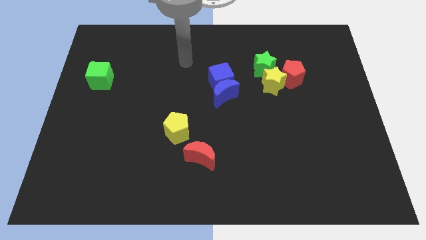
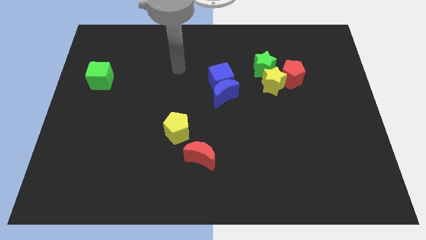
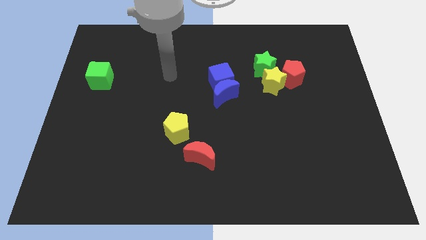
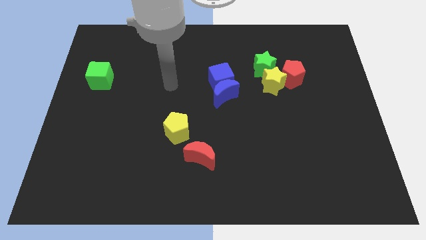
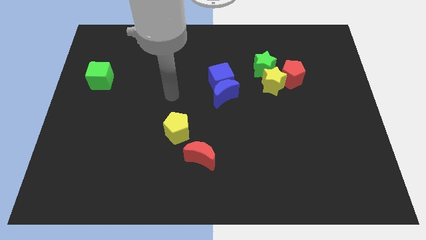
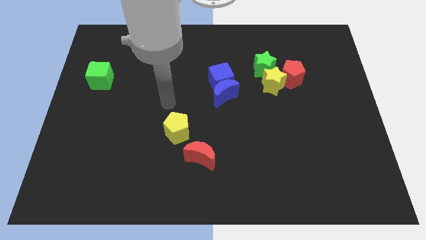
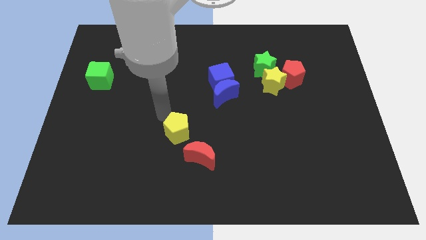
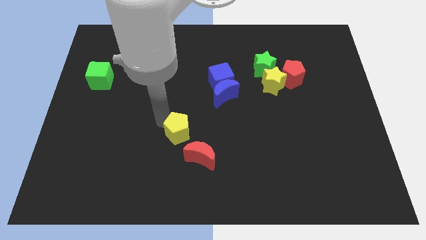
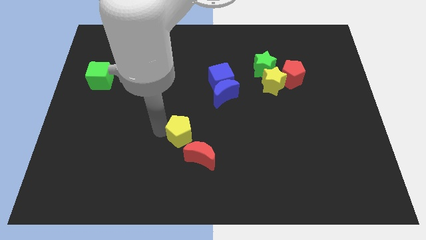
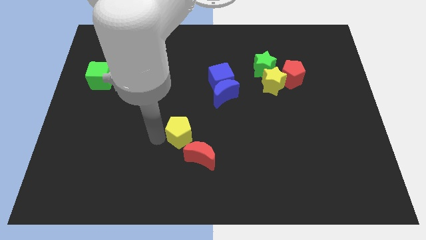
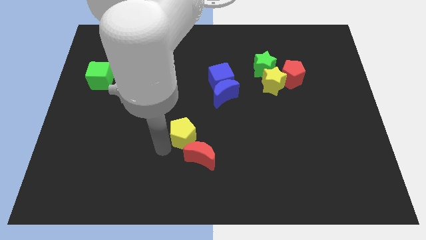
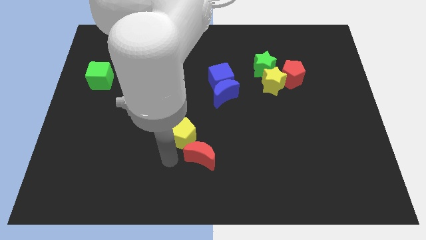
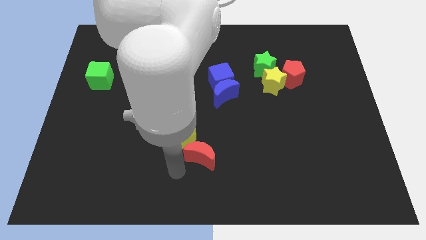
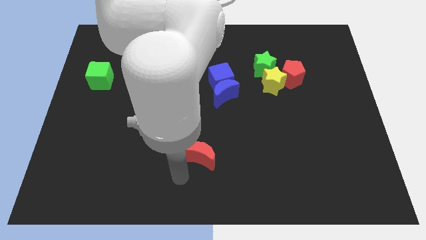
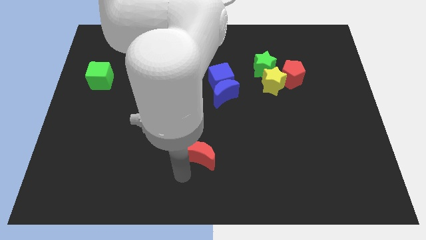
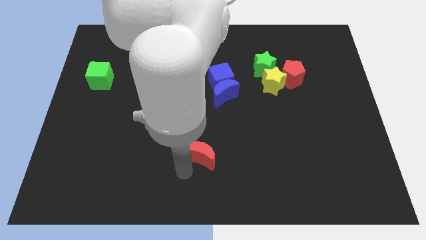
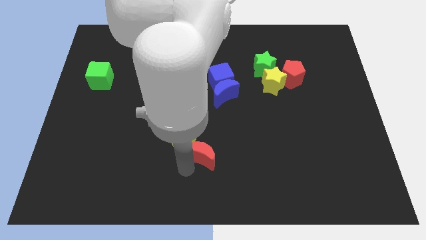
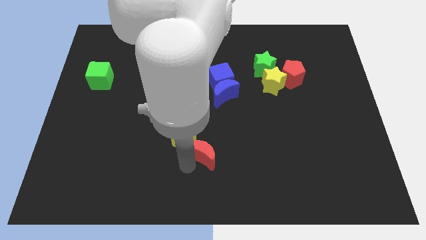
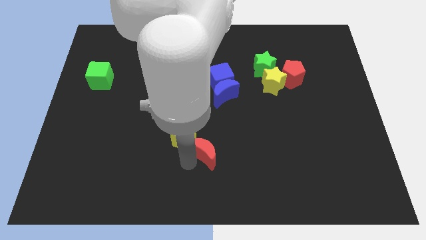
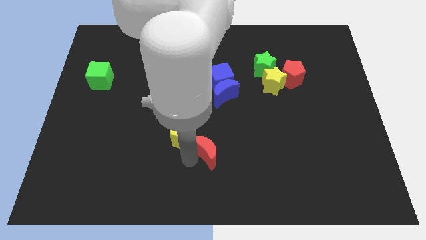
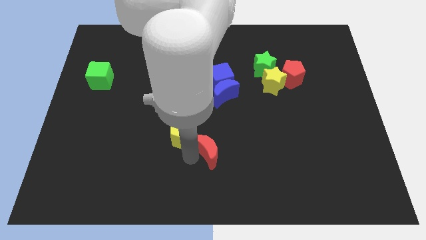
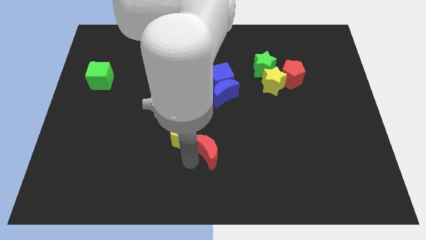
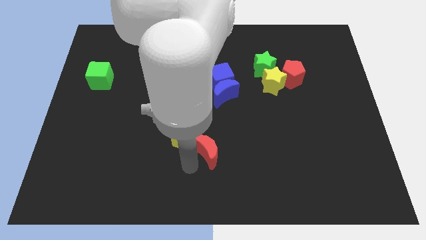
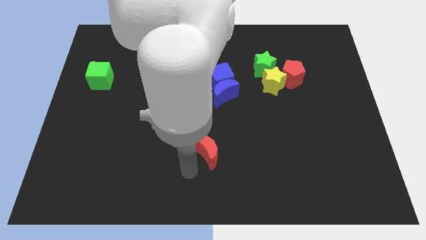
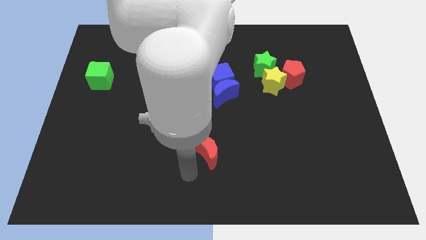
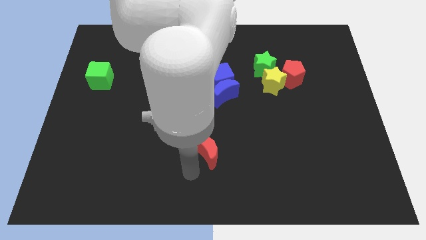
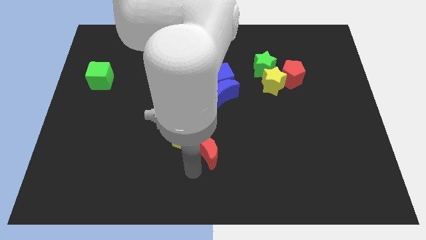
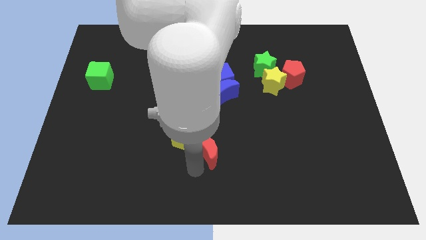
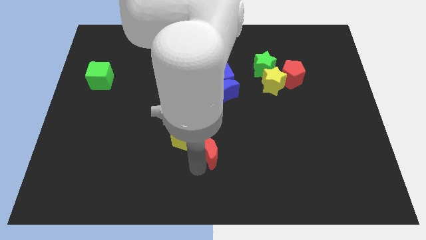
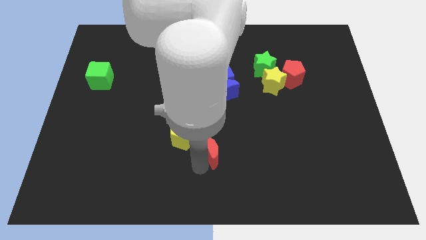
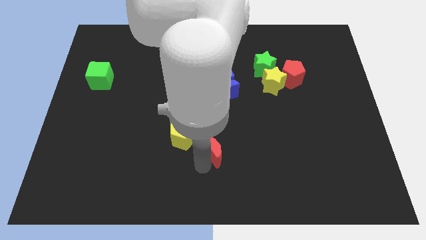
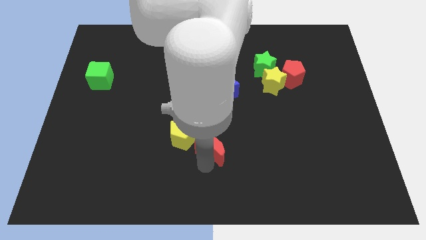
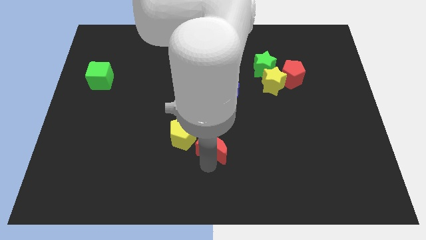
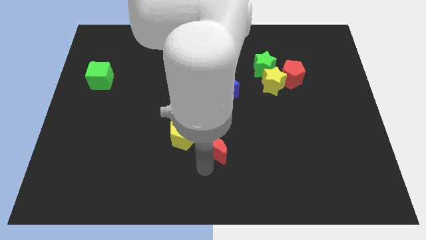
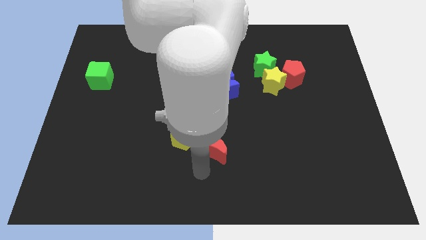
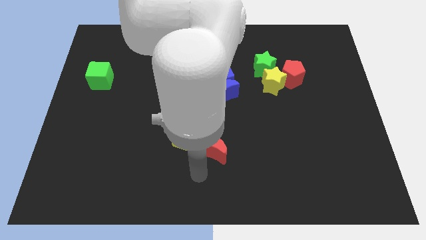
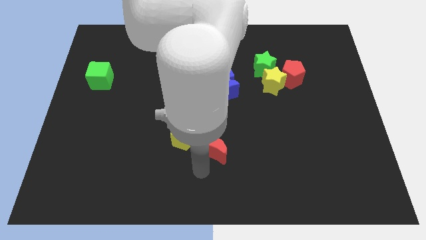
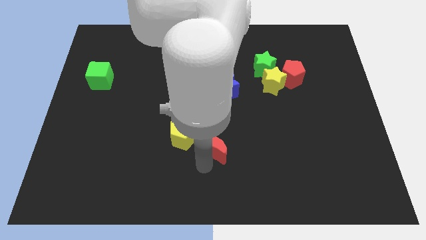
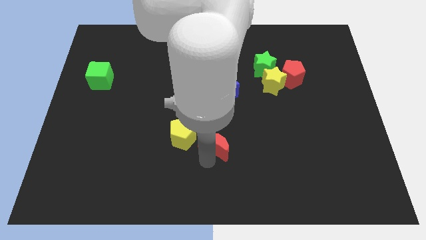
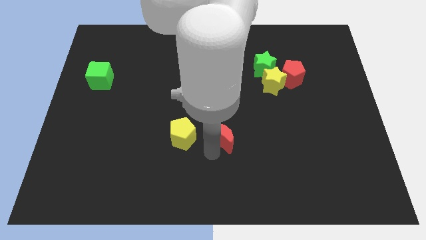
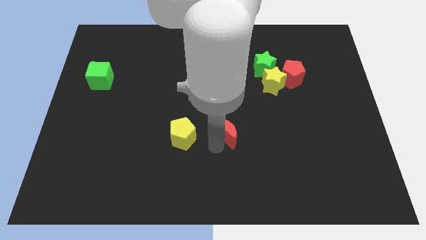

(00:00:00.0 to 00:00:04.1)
slightly slide the red moon up and to the right

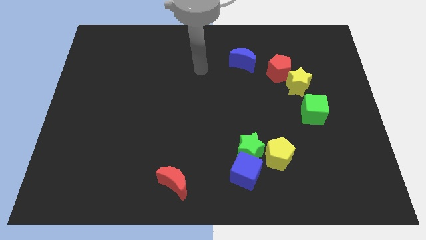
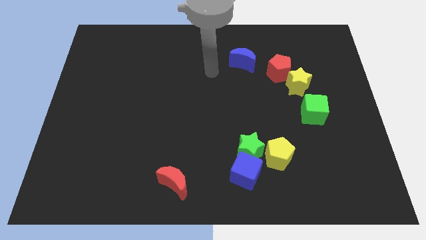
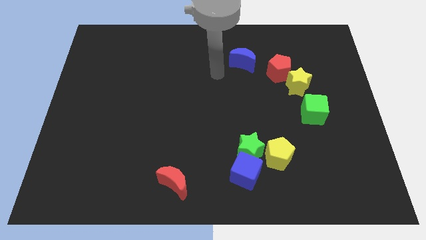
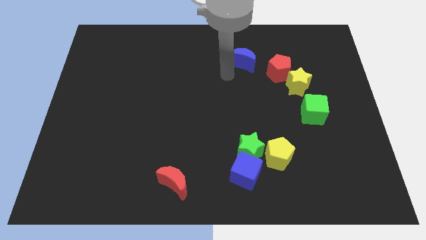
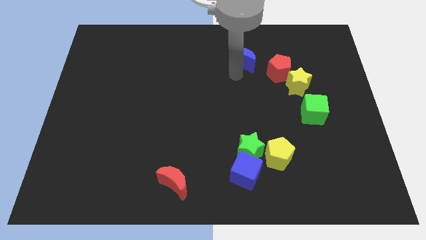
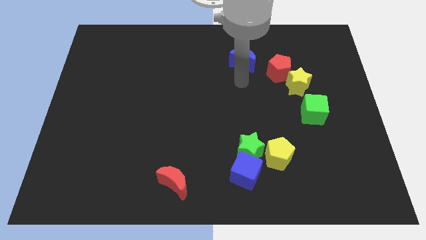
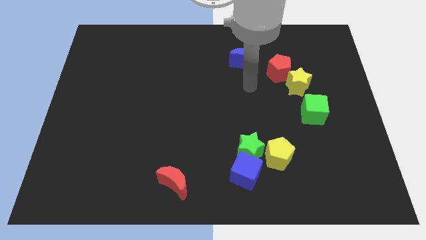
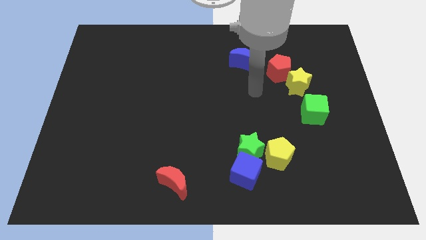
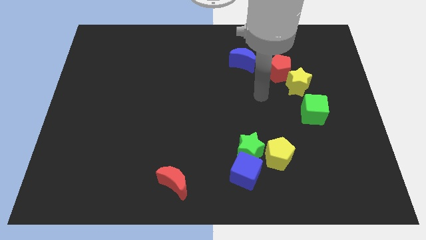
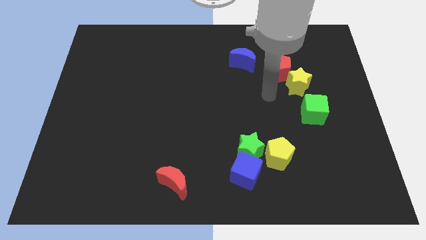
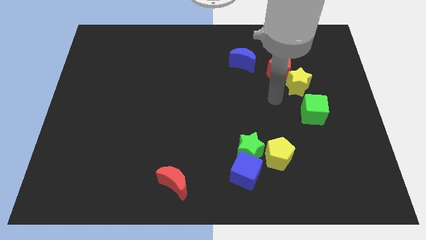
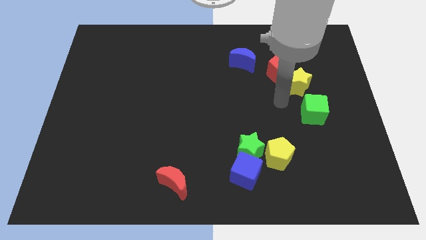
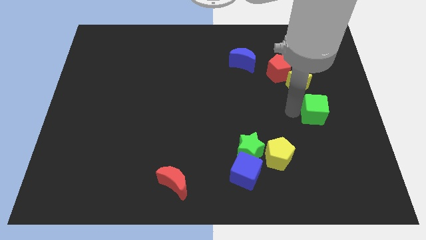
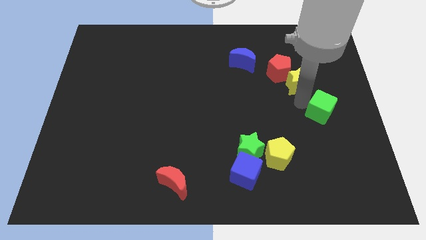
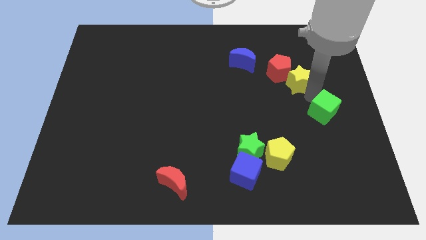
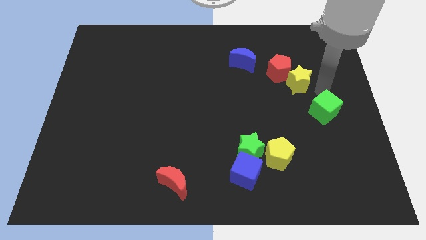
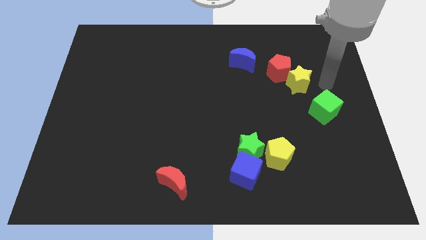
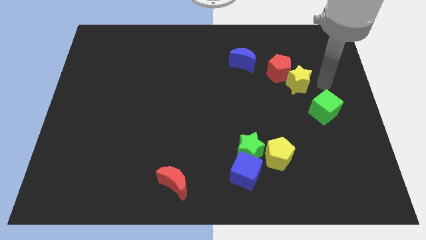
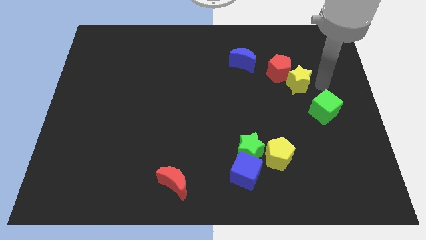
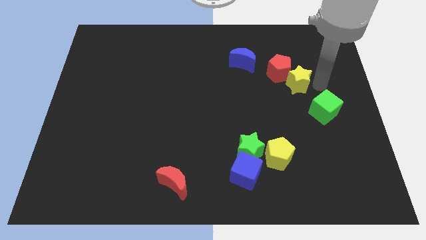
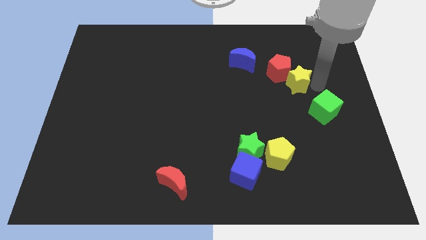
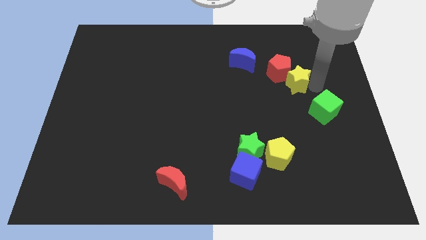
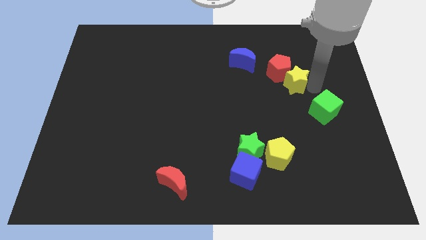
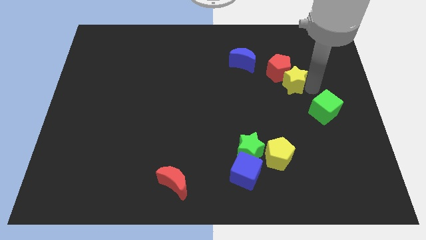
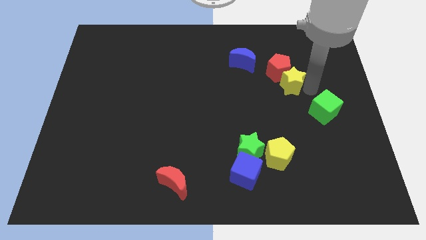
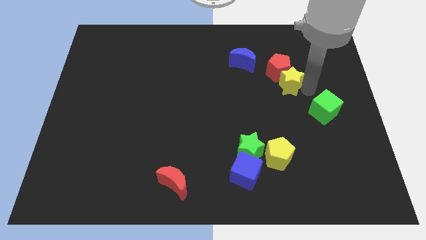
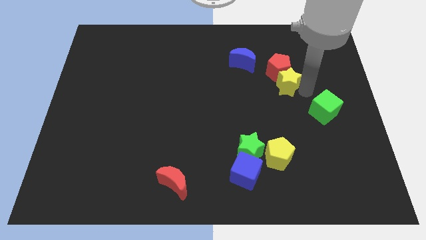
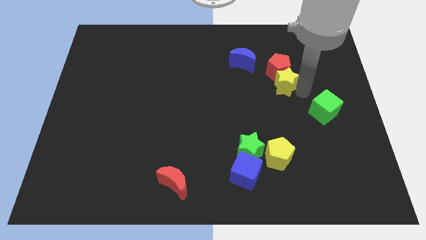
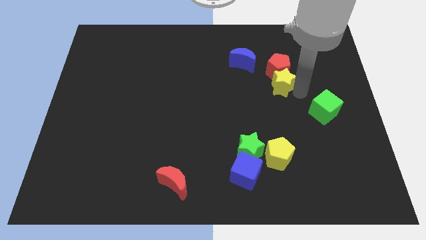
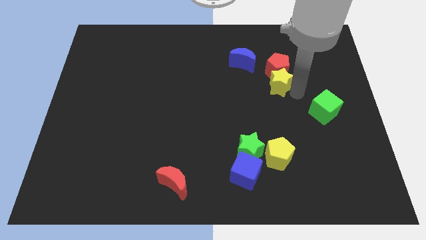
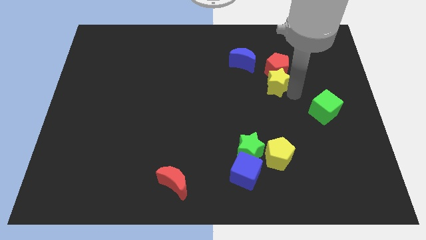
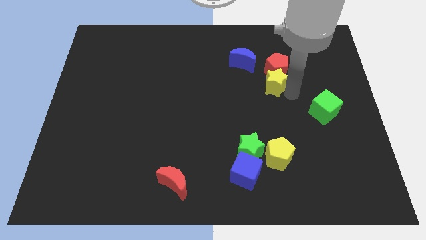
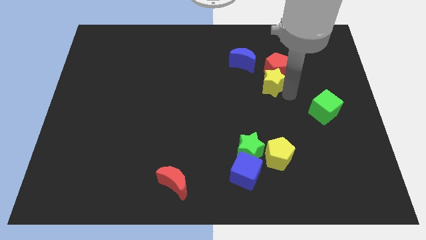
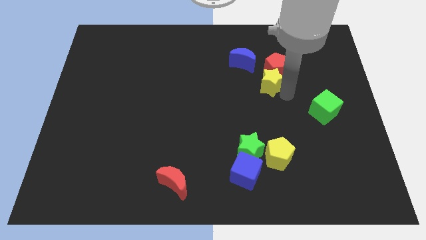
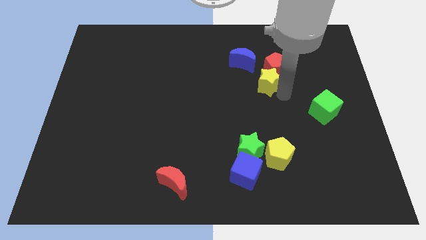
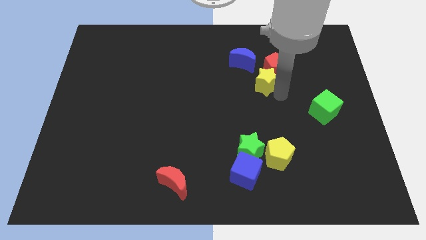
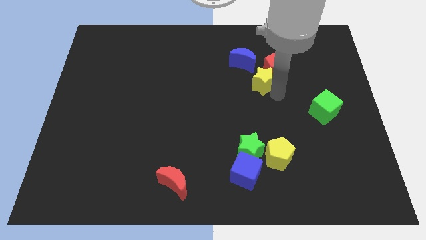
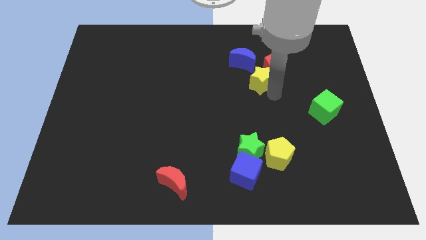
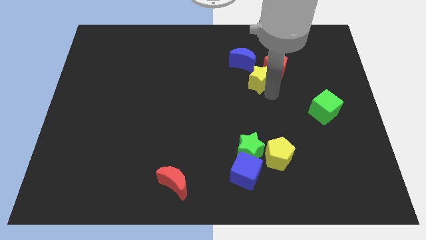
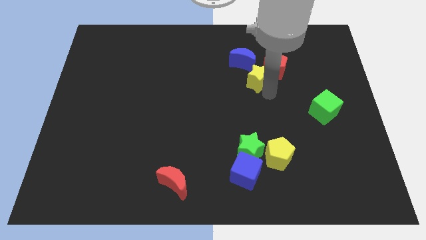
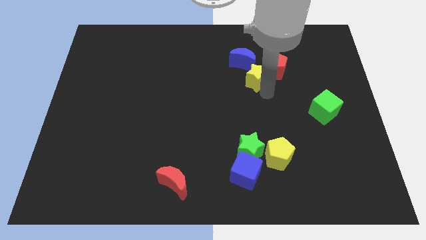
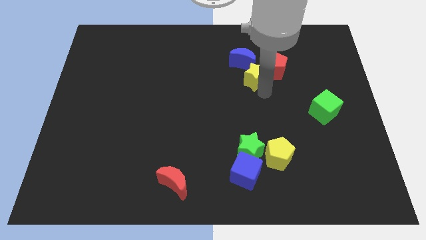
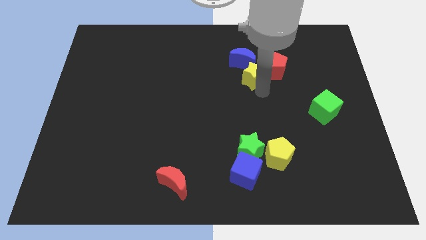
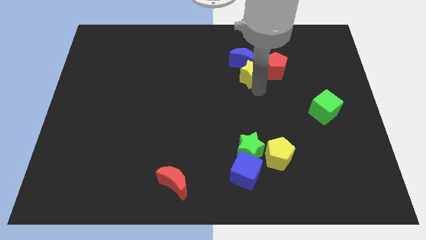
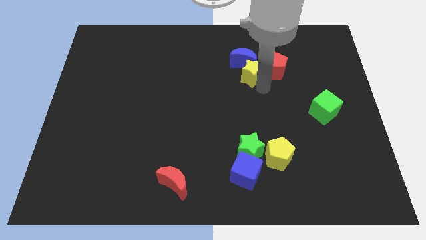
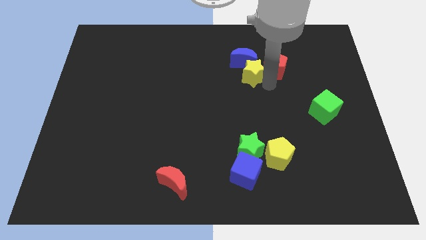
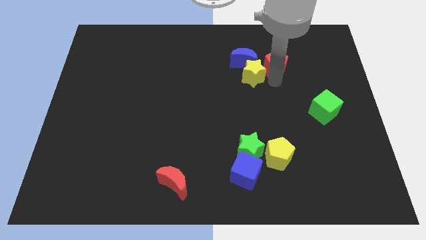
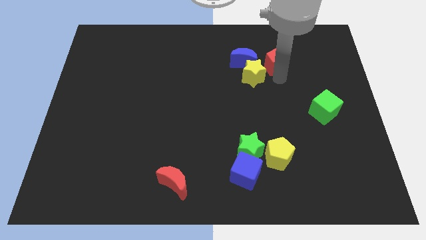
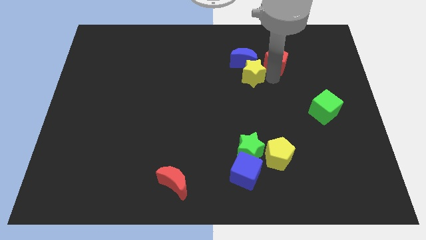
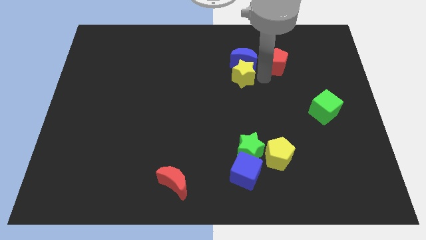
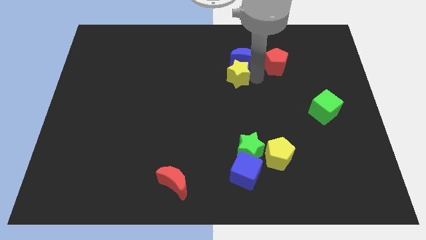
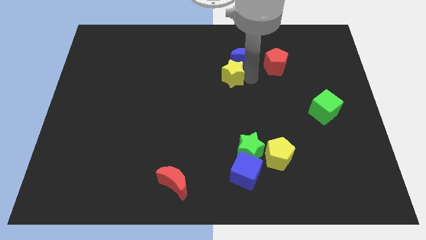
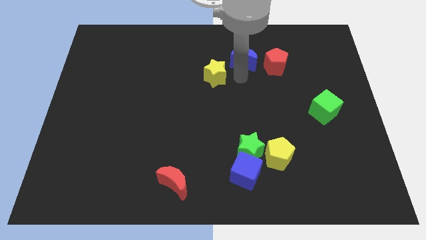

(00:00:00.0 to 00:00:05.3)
move the yellow star to the left
